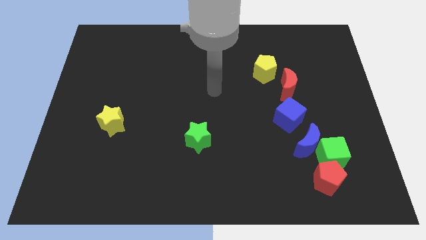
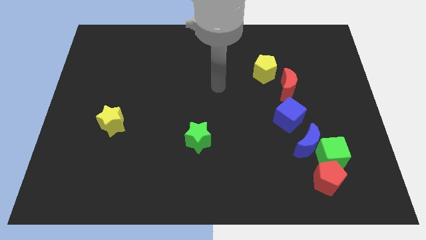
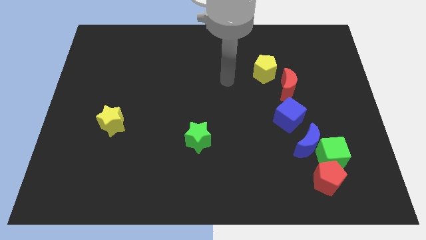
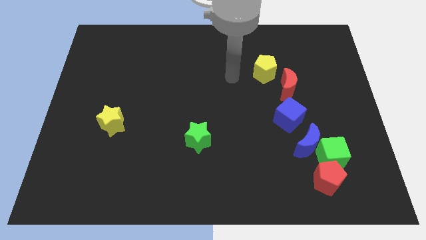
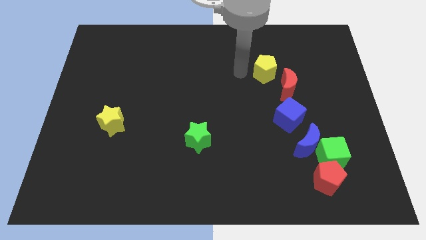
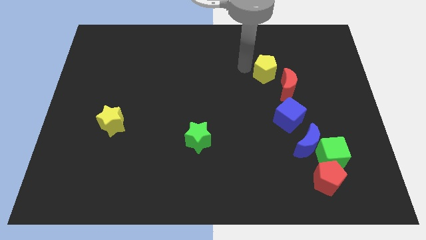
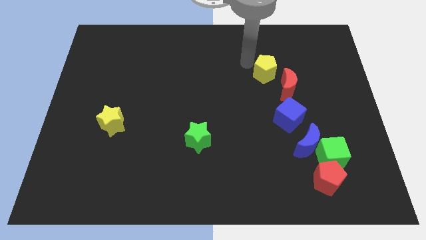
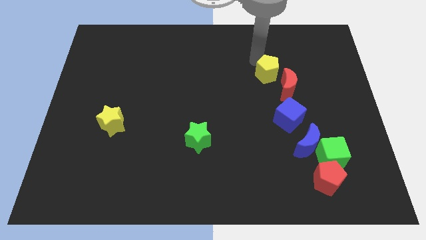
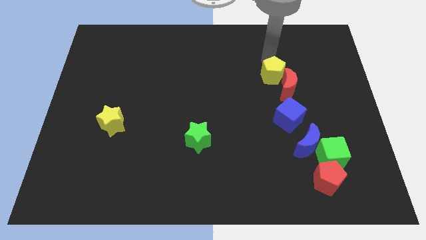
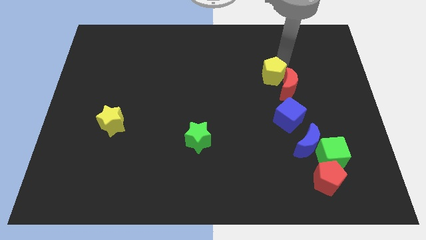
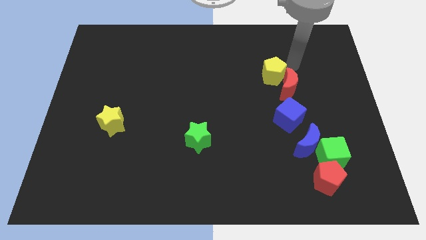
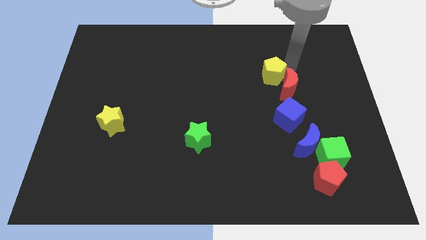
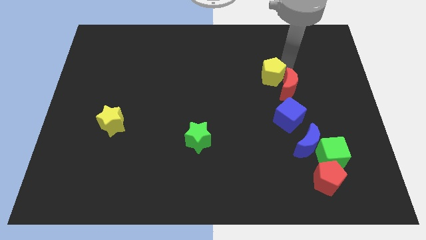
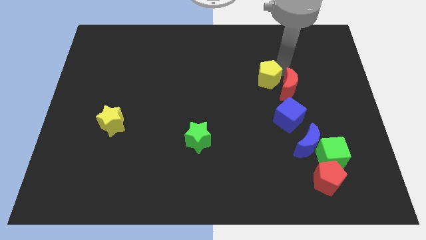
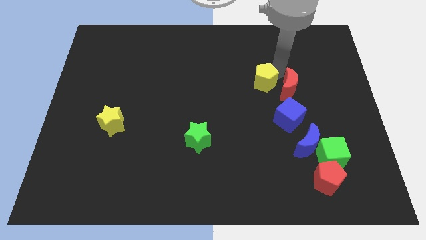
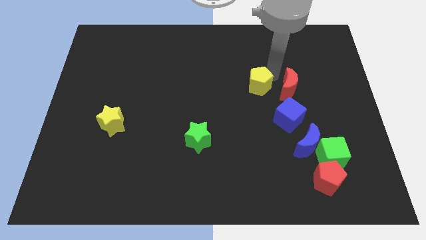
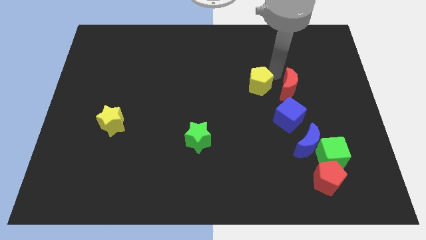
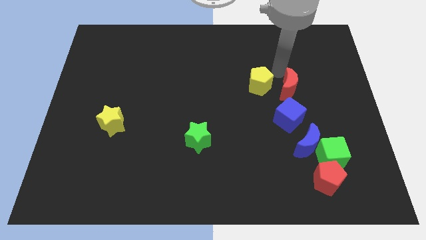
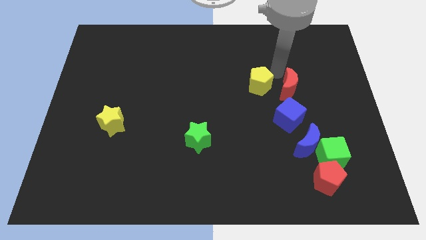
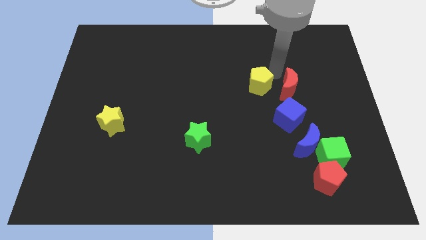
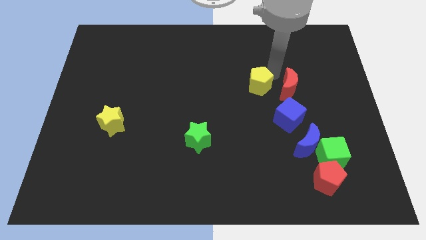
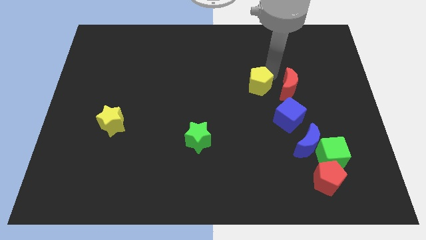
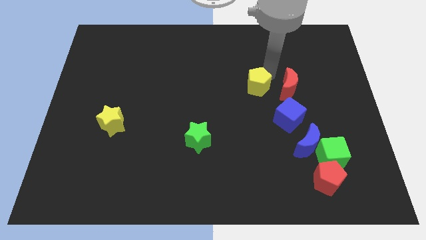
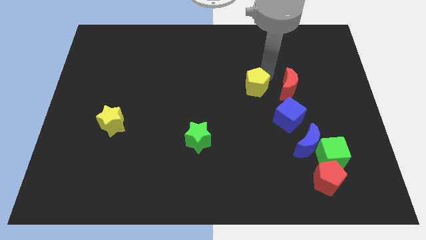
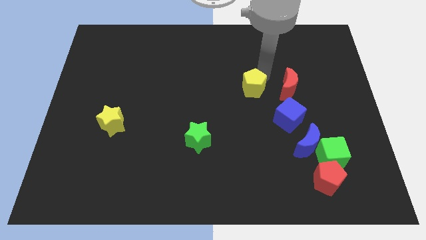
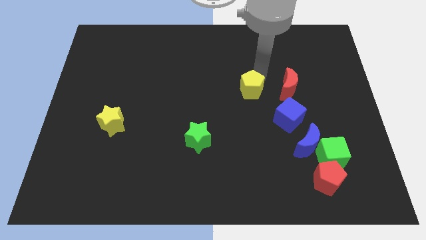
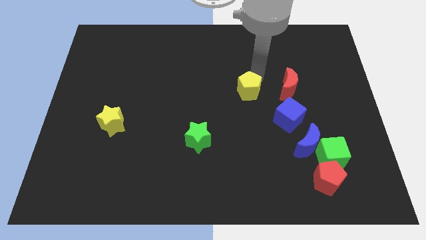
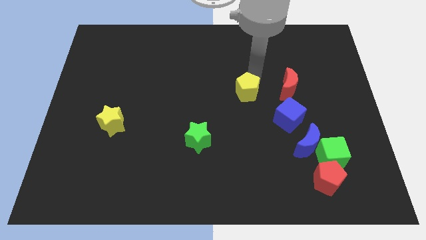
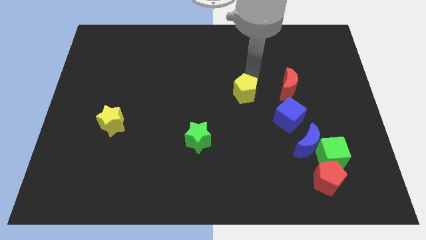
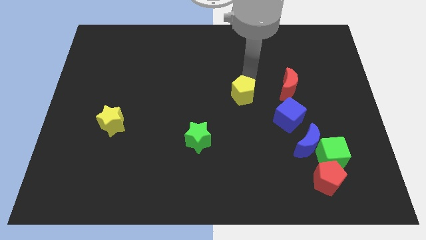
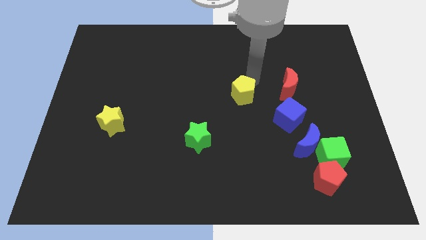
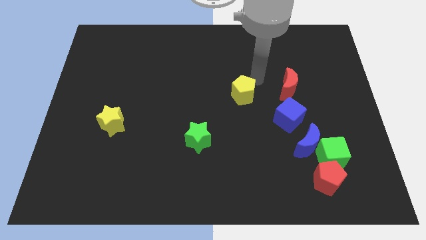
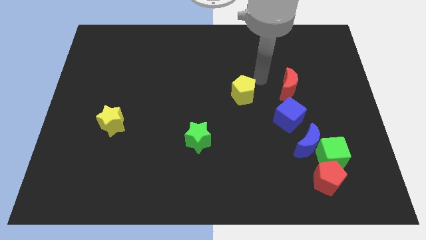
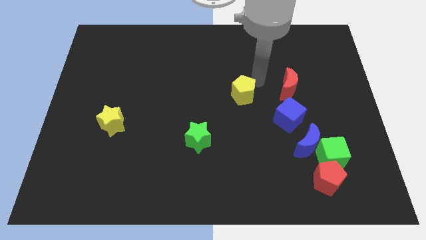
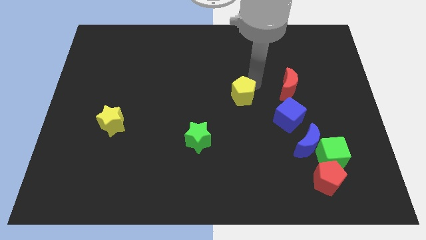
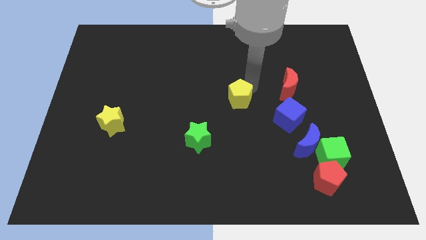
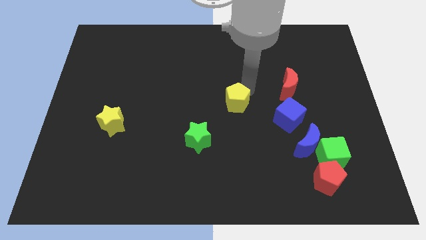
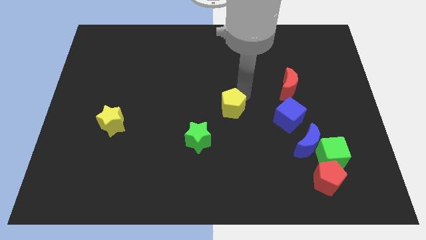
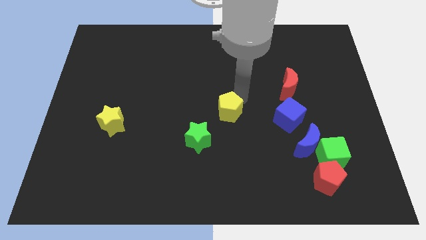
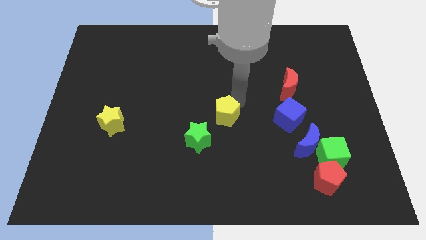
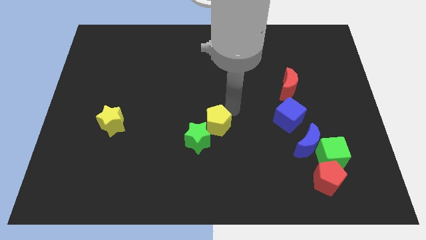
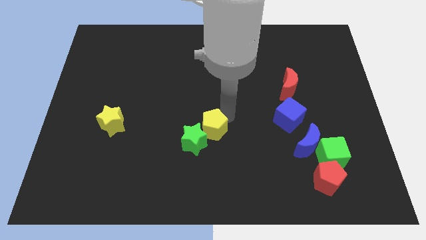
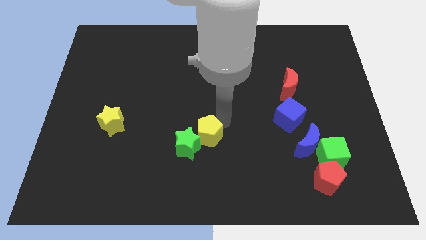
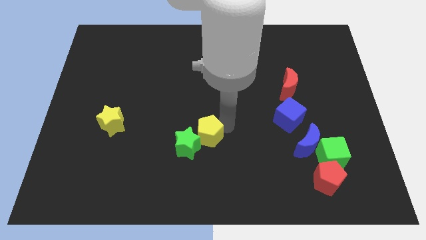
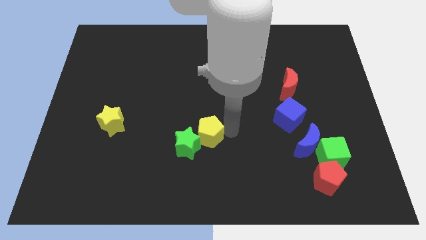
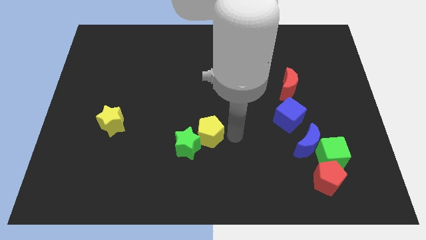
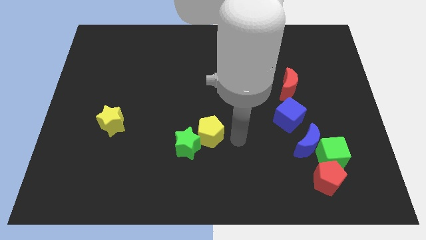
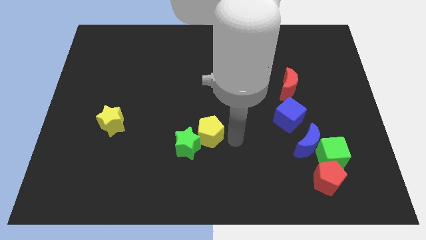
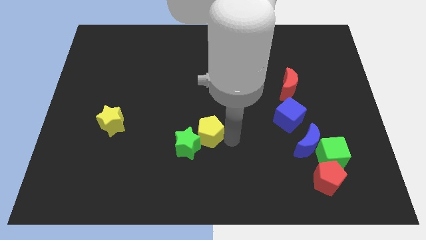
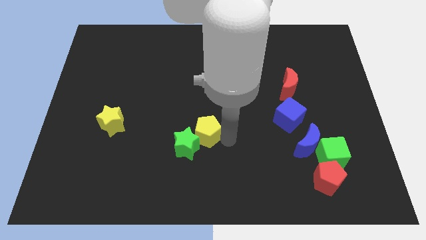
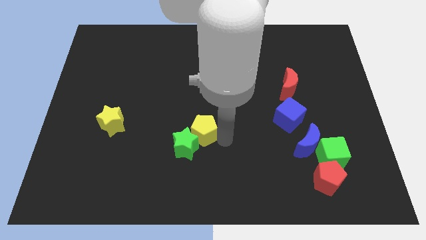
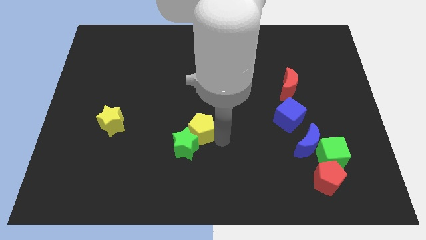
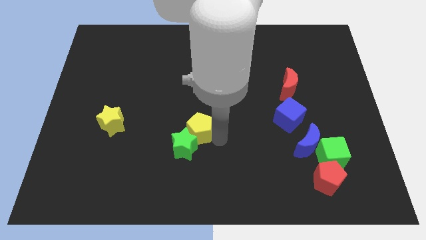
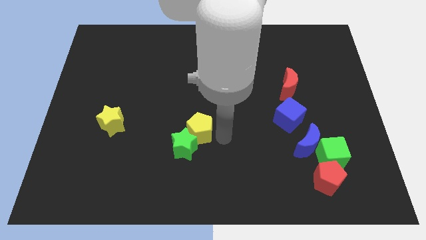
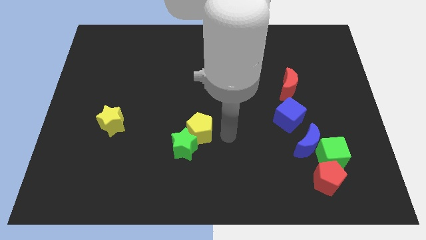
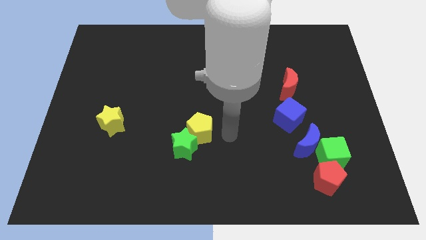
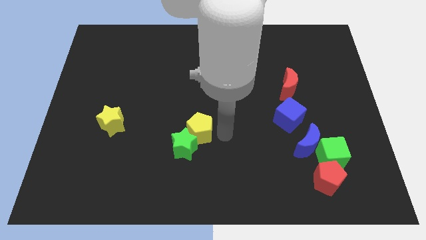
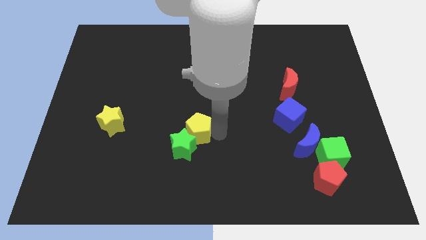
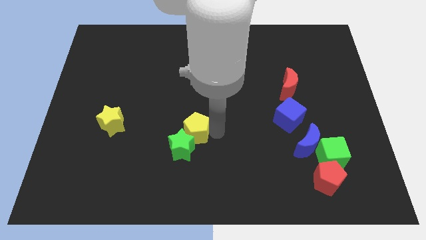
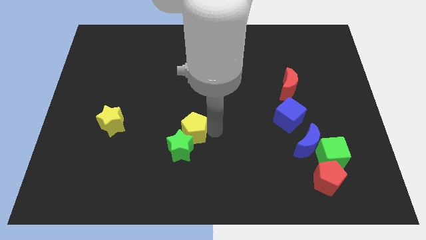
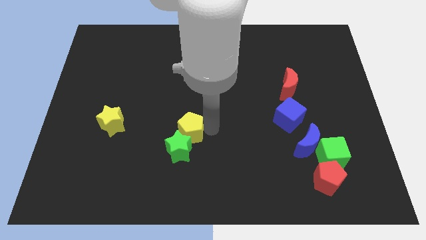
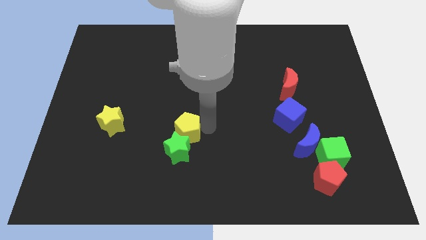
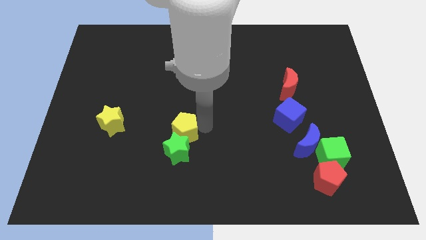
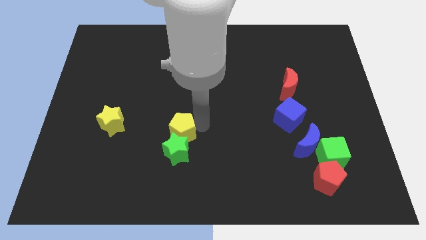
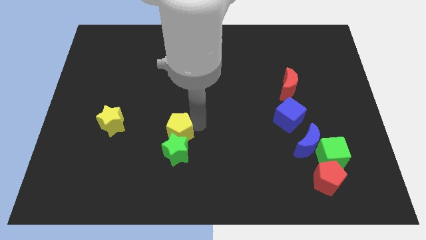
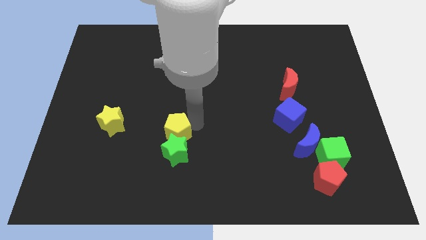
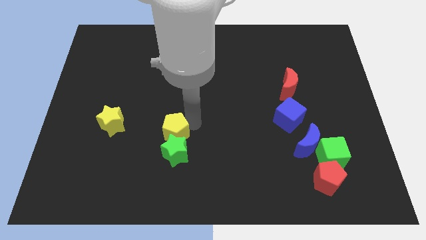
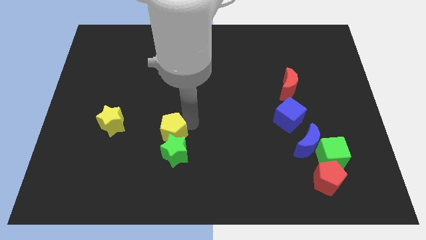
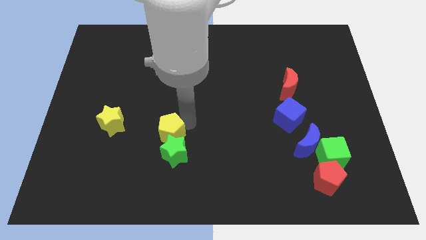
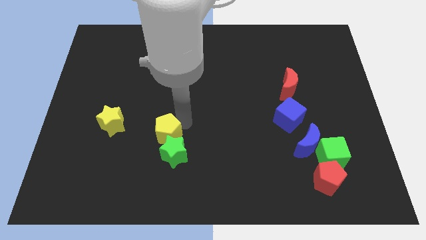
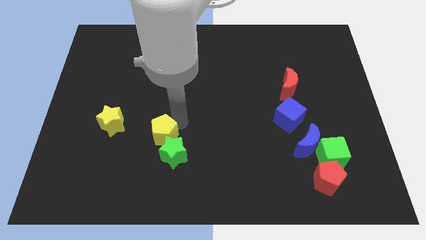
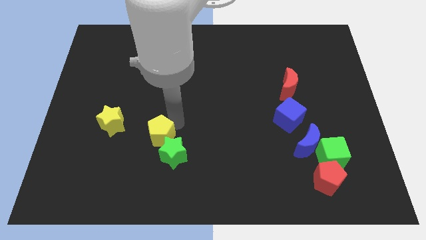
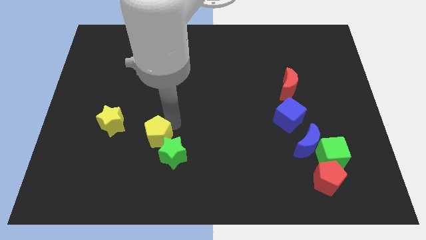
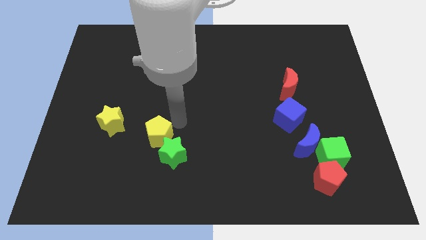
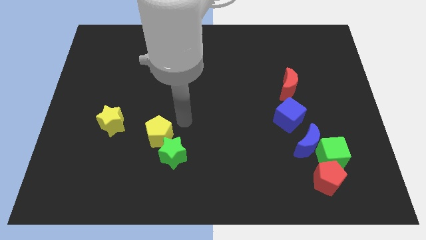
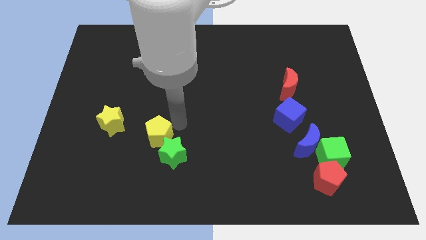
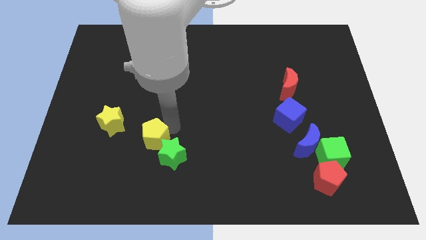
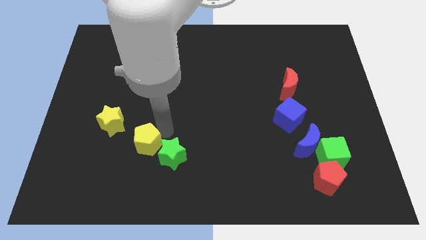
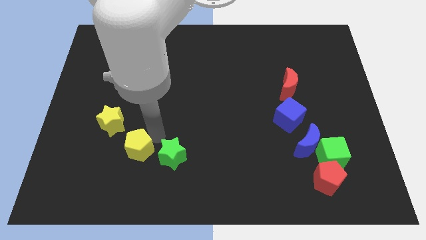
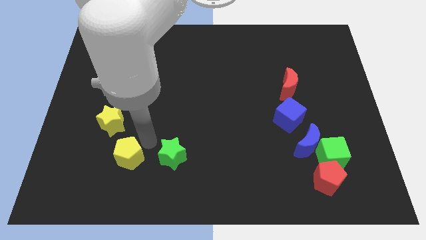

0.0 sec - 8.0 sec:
move the yellow pentagon to the bottom side of the yellow star
